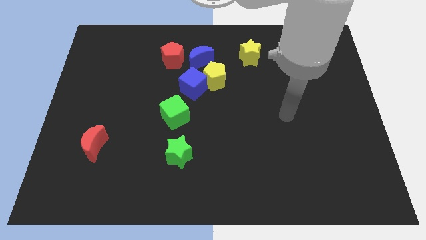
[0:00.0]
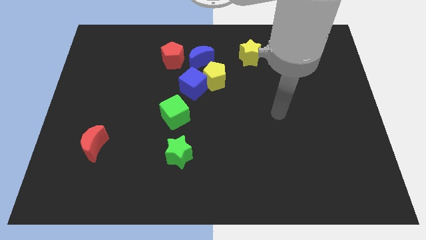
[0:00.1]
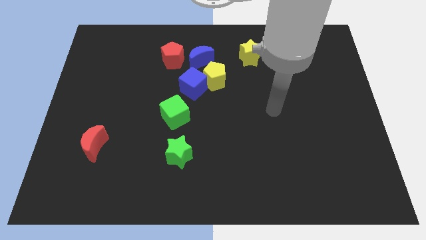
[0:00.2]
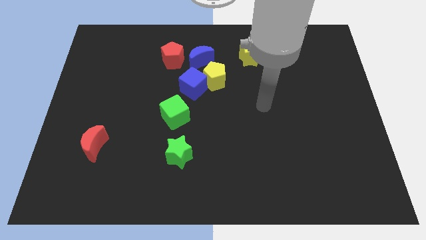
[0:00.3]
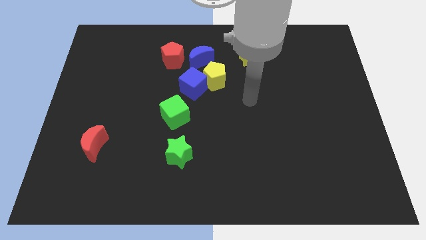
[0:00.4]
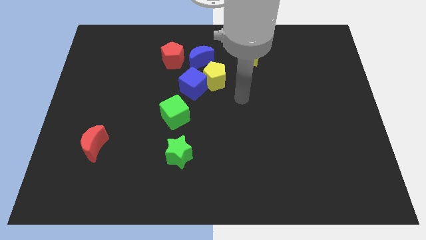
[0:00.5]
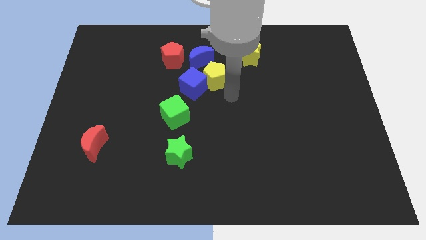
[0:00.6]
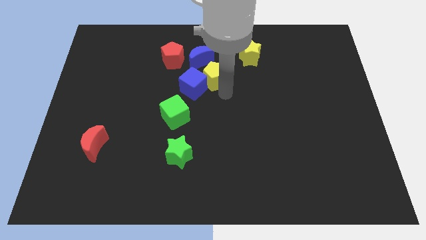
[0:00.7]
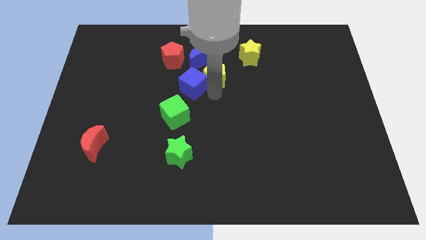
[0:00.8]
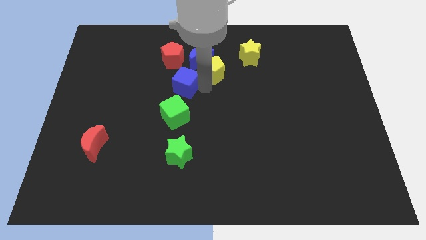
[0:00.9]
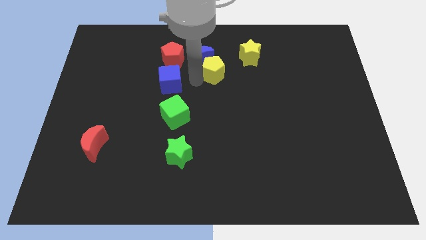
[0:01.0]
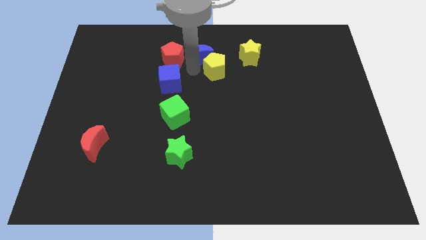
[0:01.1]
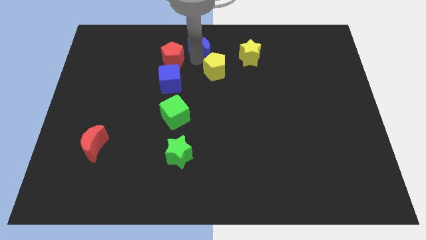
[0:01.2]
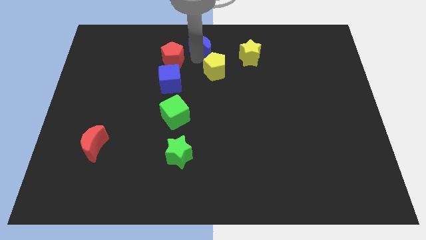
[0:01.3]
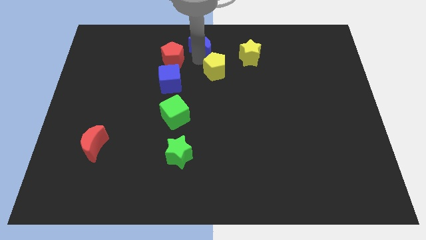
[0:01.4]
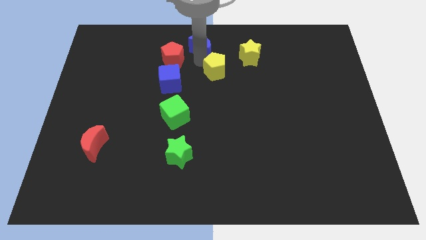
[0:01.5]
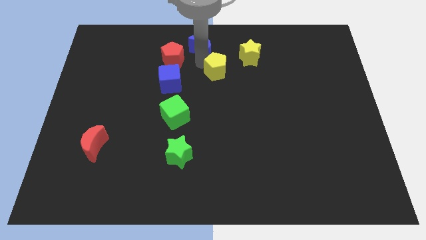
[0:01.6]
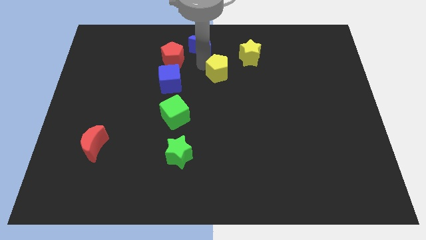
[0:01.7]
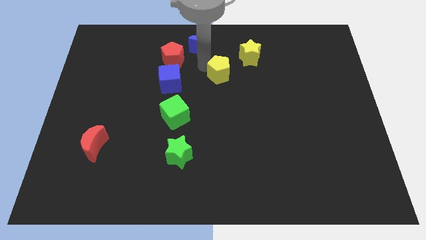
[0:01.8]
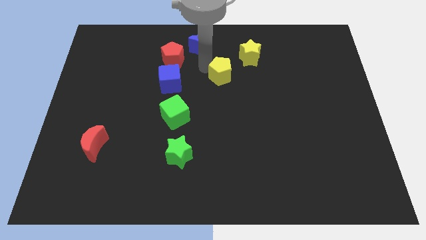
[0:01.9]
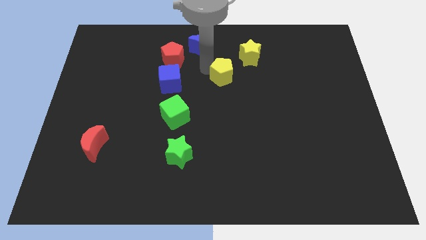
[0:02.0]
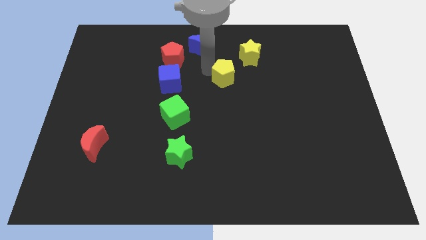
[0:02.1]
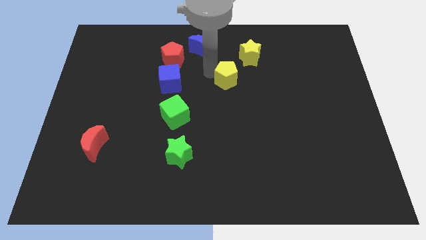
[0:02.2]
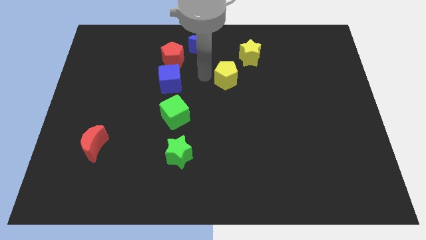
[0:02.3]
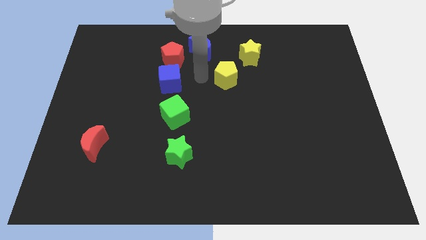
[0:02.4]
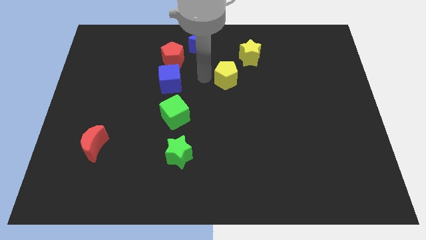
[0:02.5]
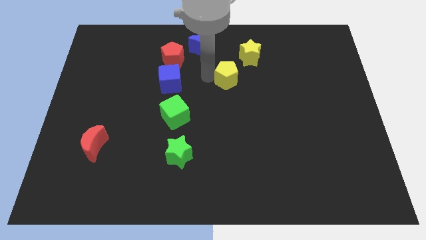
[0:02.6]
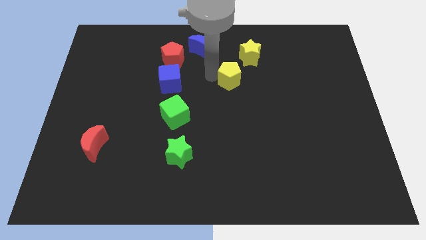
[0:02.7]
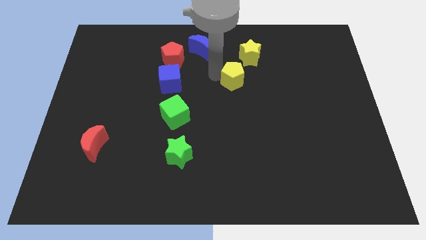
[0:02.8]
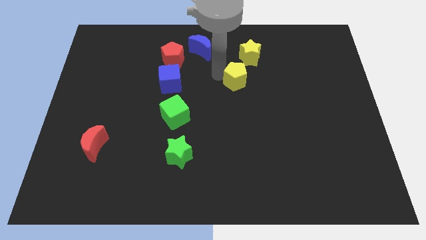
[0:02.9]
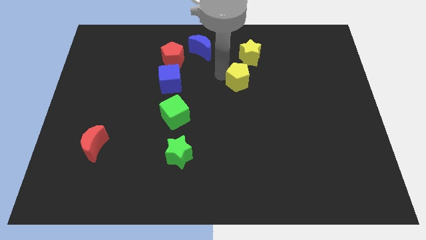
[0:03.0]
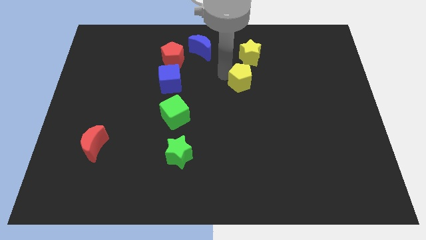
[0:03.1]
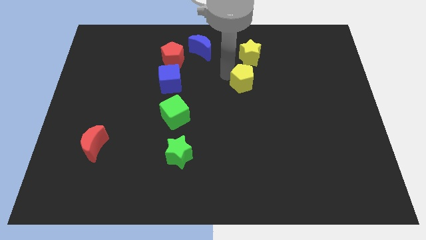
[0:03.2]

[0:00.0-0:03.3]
push the yellow pentagon right slightly

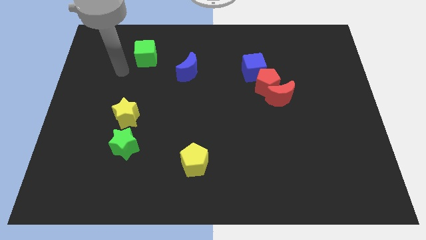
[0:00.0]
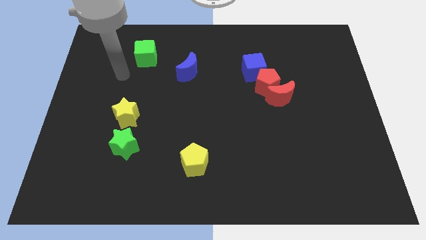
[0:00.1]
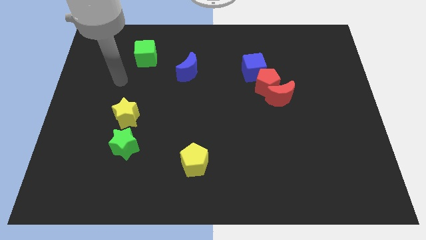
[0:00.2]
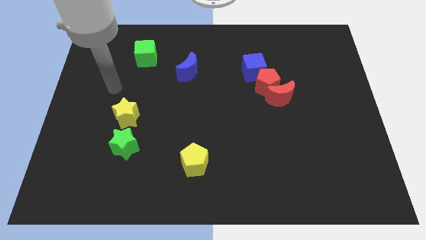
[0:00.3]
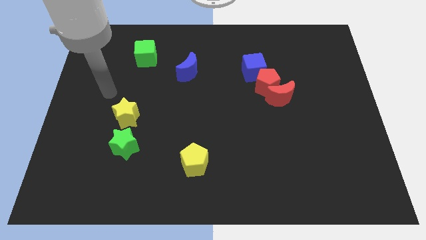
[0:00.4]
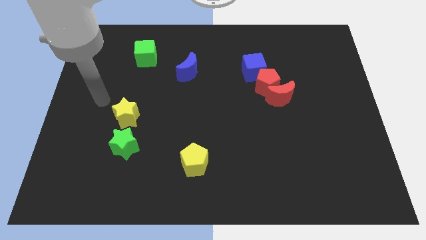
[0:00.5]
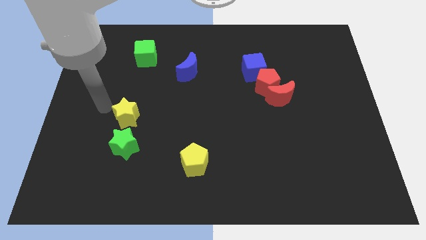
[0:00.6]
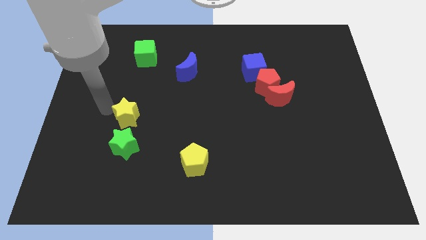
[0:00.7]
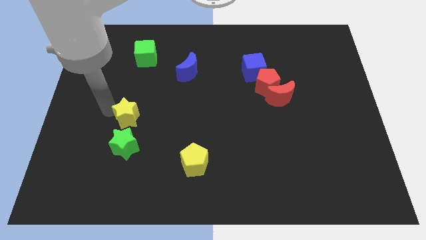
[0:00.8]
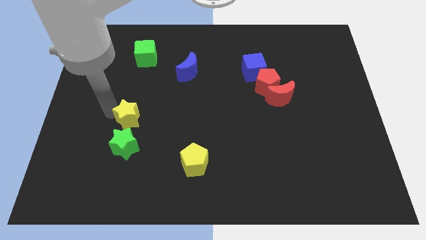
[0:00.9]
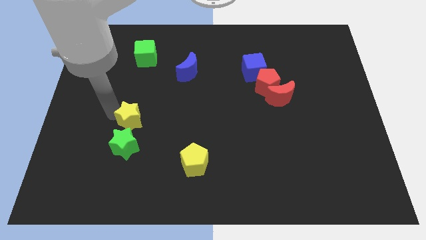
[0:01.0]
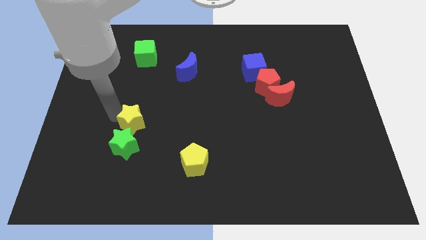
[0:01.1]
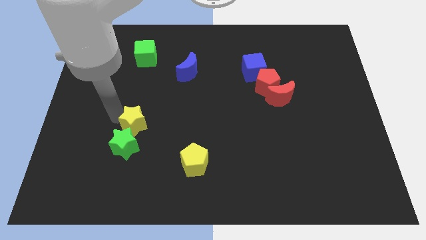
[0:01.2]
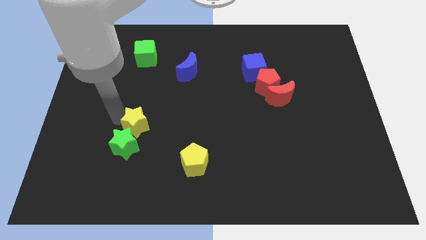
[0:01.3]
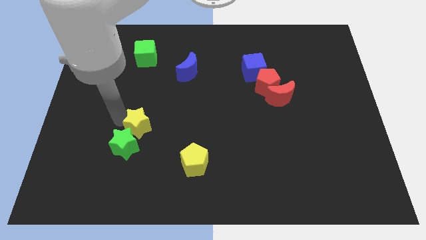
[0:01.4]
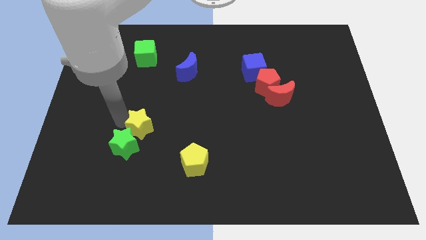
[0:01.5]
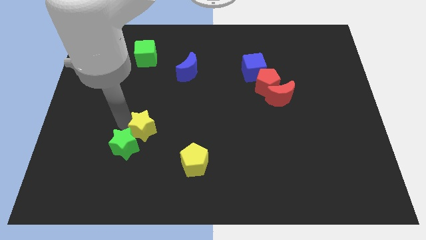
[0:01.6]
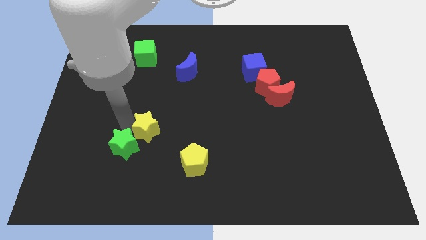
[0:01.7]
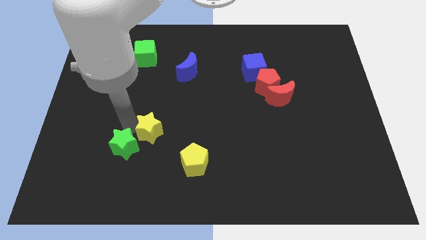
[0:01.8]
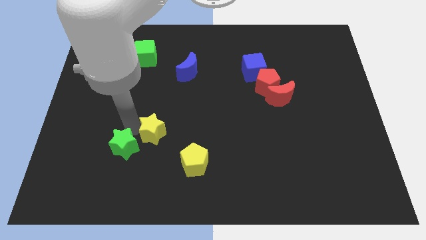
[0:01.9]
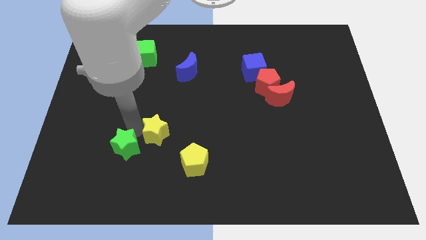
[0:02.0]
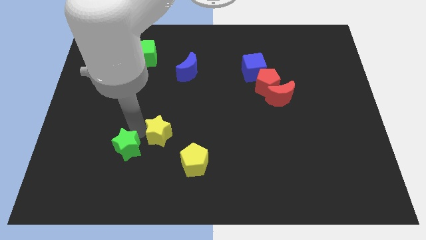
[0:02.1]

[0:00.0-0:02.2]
move the yellow star to the right a little

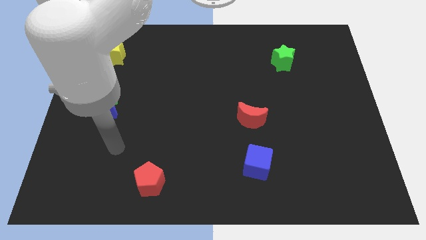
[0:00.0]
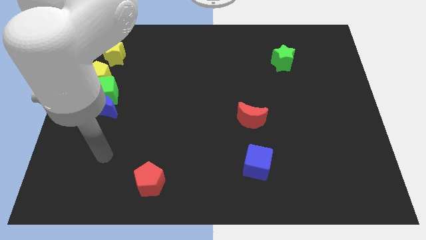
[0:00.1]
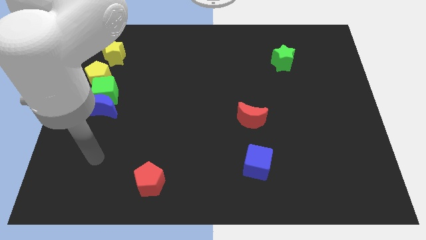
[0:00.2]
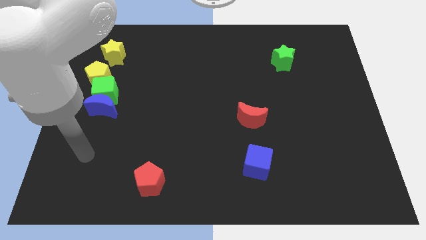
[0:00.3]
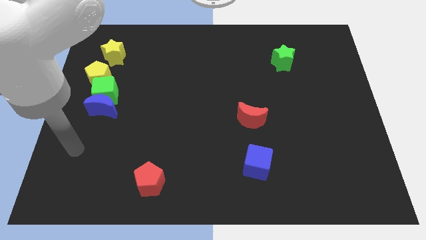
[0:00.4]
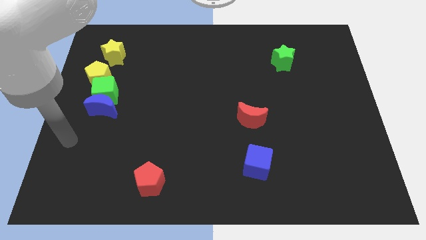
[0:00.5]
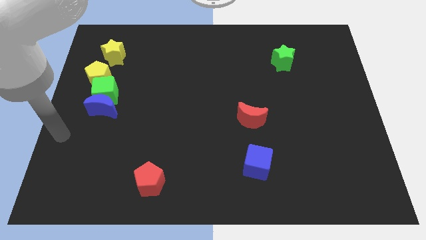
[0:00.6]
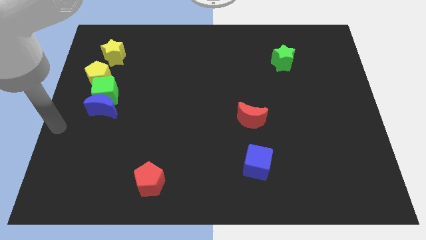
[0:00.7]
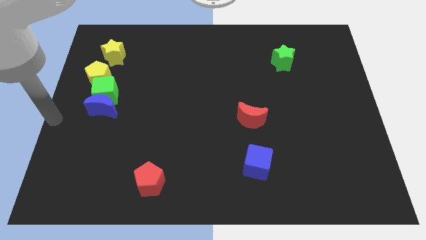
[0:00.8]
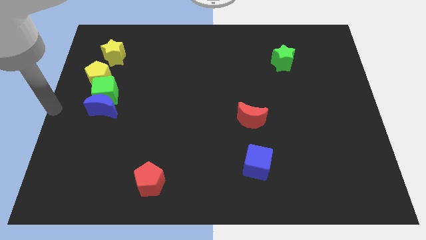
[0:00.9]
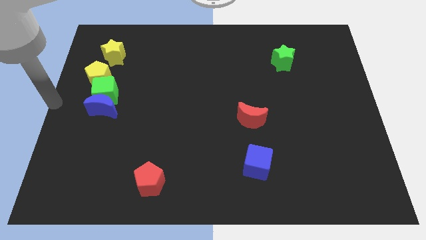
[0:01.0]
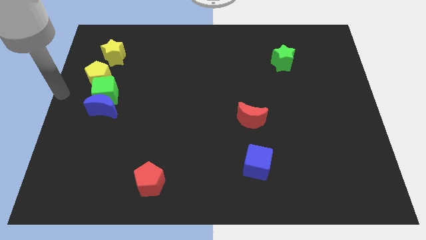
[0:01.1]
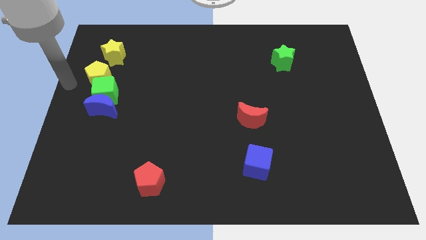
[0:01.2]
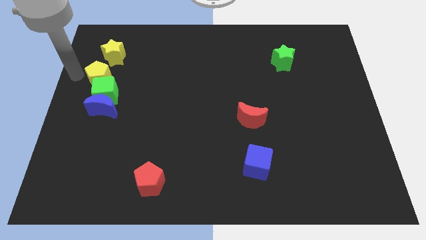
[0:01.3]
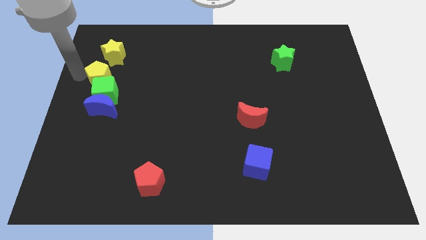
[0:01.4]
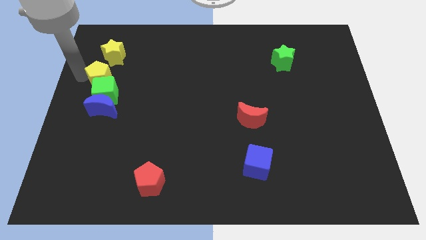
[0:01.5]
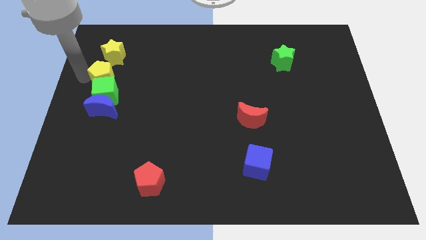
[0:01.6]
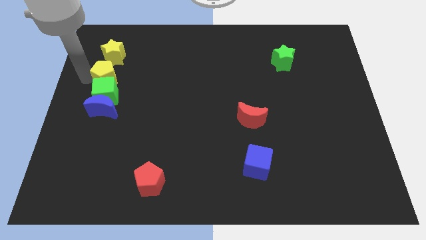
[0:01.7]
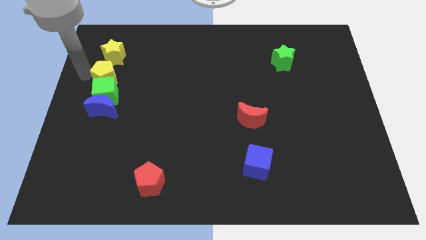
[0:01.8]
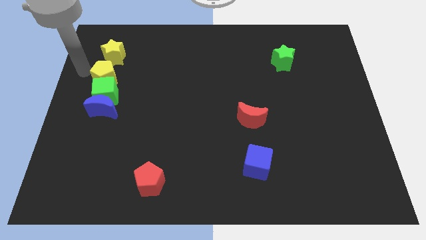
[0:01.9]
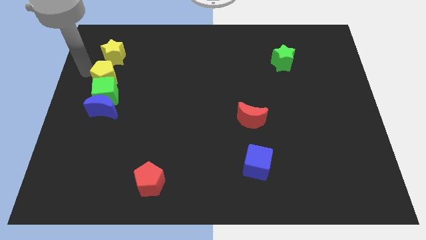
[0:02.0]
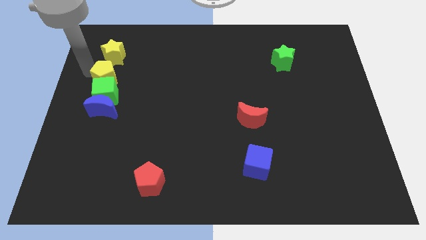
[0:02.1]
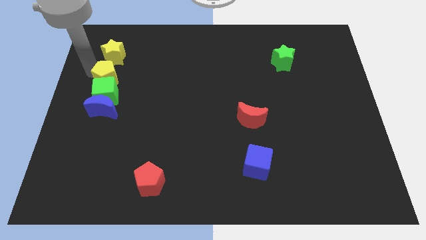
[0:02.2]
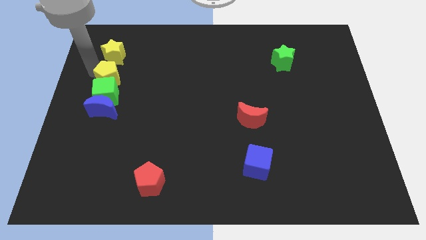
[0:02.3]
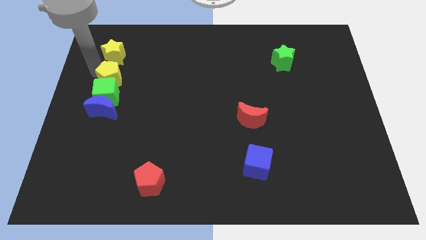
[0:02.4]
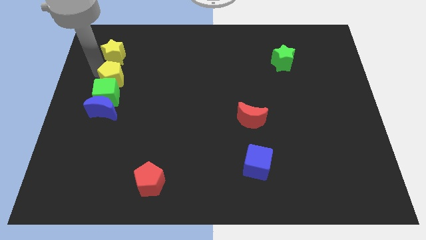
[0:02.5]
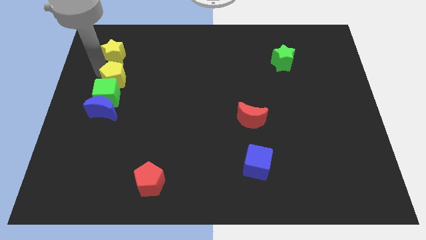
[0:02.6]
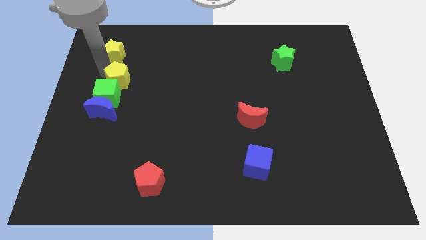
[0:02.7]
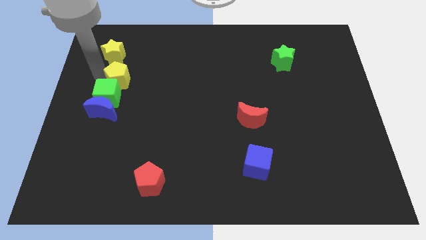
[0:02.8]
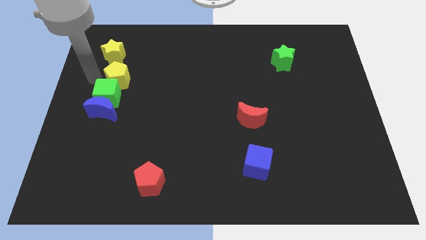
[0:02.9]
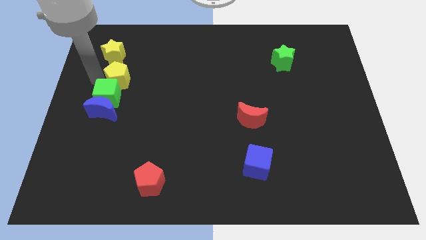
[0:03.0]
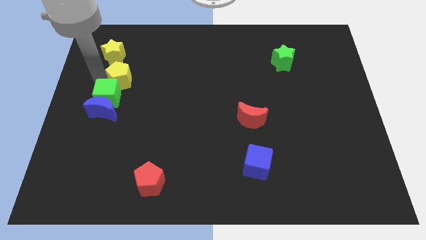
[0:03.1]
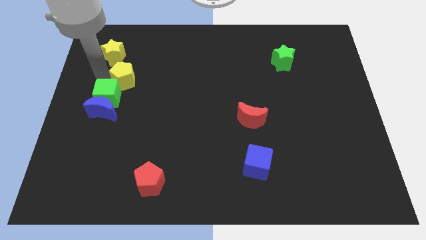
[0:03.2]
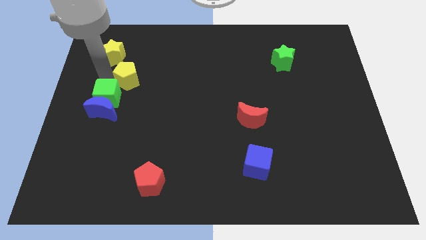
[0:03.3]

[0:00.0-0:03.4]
slightly push the yellow pentagon right
